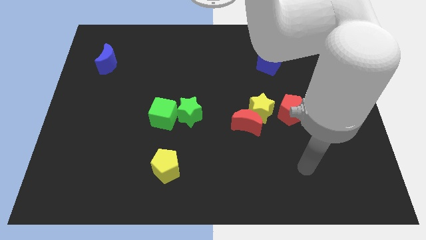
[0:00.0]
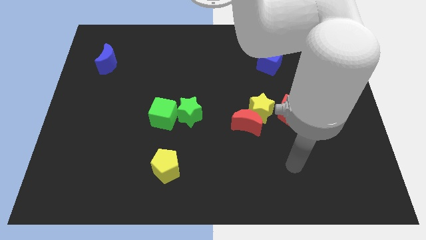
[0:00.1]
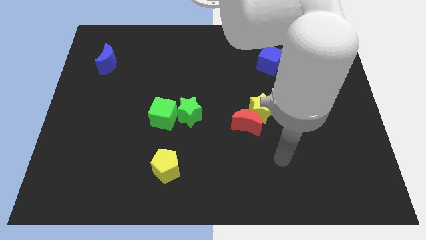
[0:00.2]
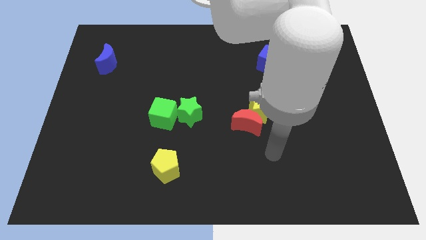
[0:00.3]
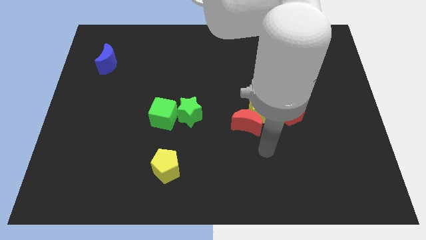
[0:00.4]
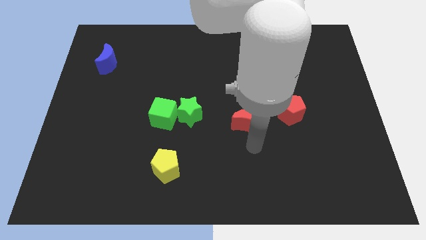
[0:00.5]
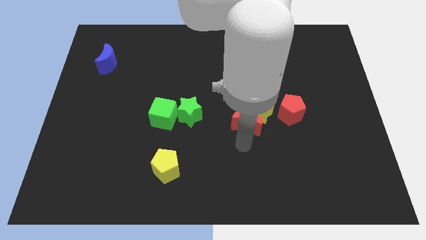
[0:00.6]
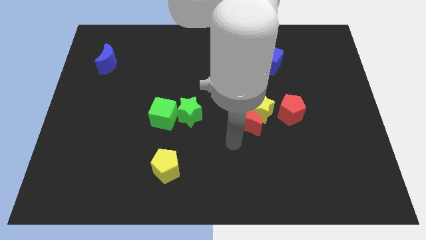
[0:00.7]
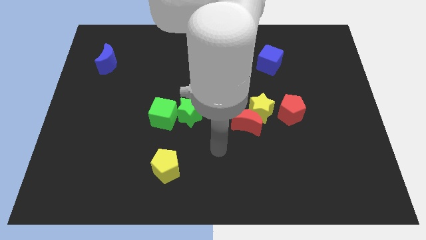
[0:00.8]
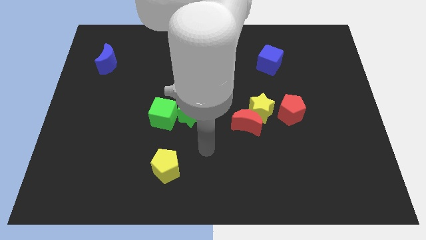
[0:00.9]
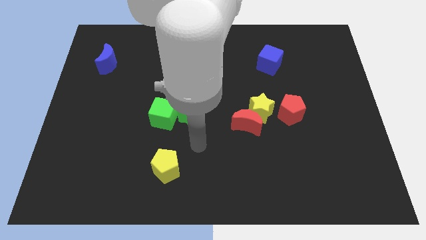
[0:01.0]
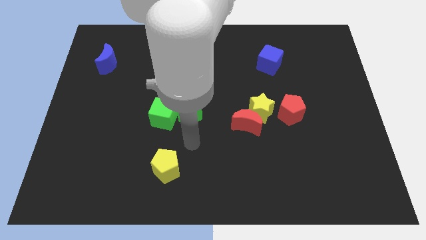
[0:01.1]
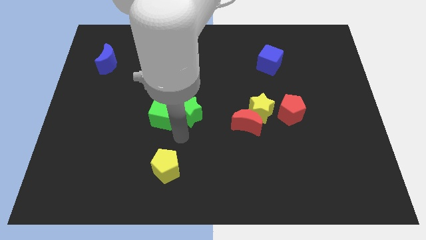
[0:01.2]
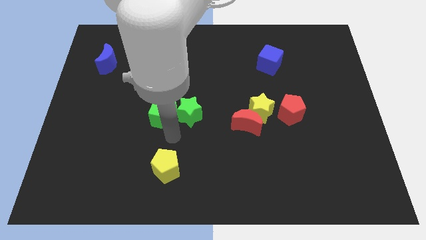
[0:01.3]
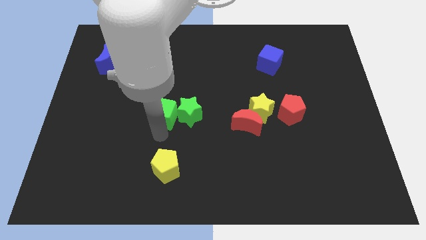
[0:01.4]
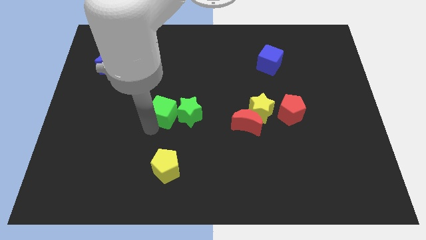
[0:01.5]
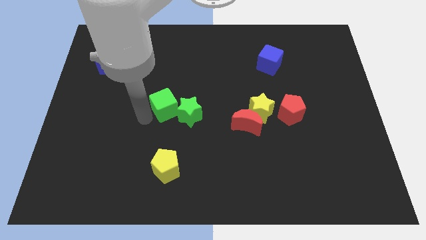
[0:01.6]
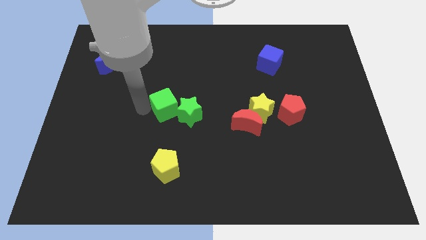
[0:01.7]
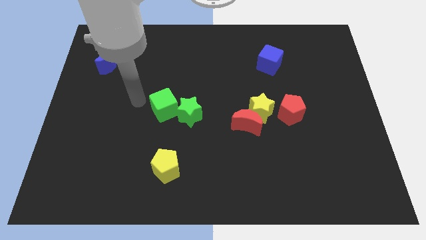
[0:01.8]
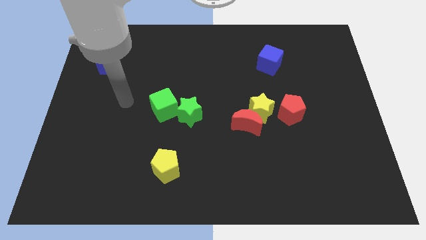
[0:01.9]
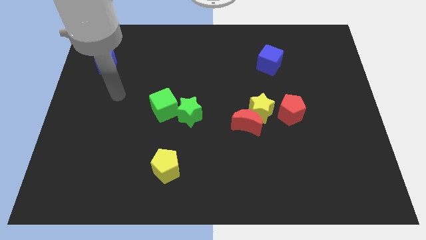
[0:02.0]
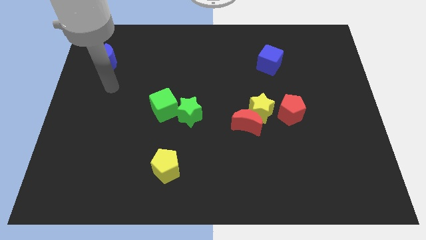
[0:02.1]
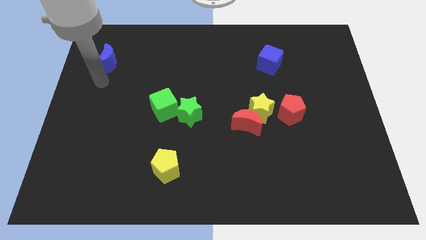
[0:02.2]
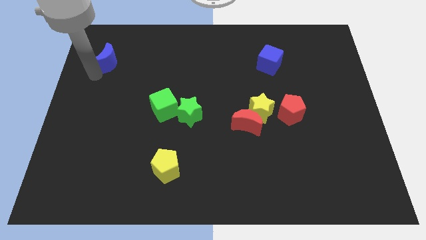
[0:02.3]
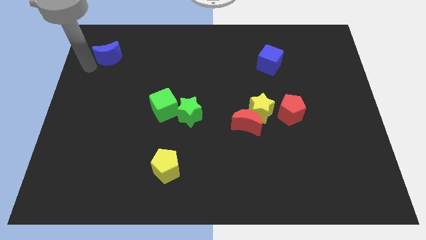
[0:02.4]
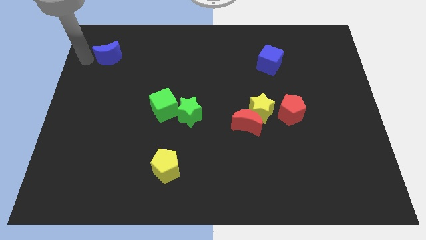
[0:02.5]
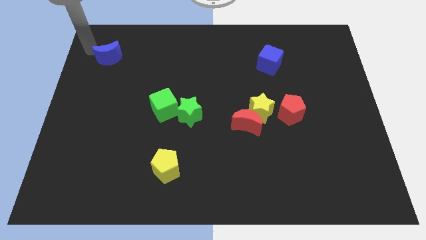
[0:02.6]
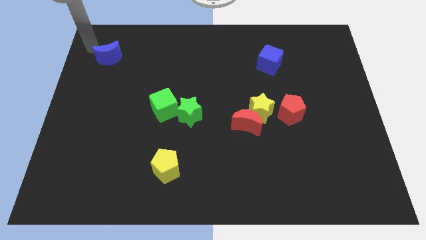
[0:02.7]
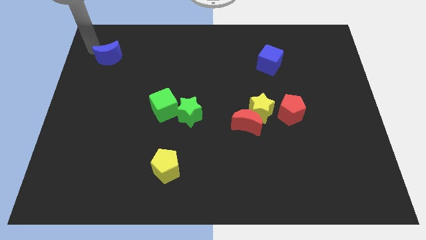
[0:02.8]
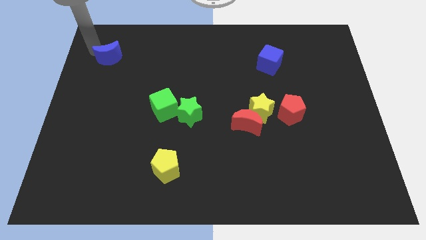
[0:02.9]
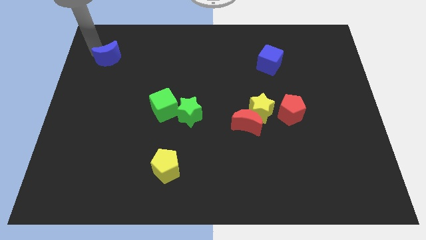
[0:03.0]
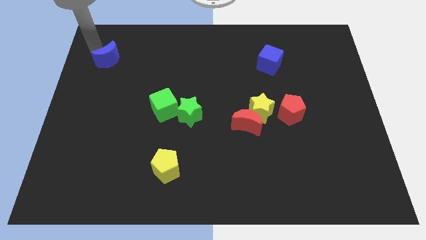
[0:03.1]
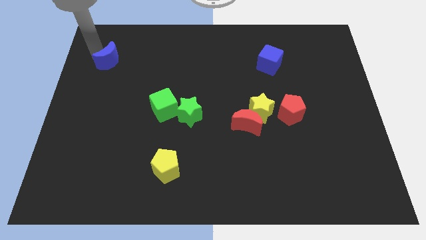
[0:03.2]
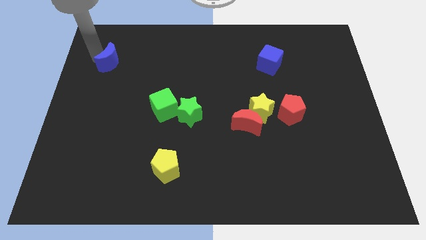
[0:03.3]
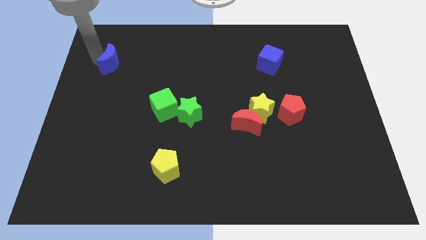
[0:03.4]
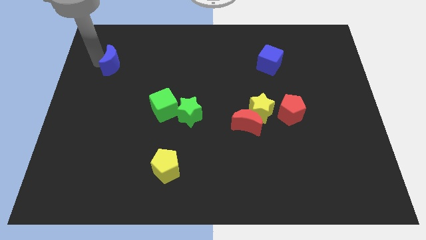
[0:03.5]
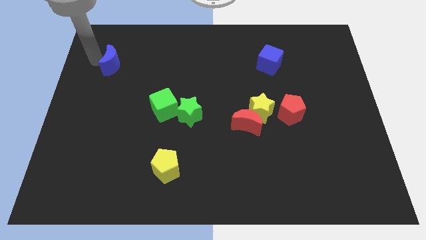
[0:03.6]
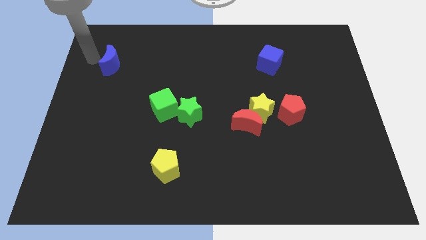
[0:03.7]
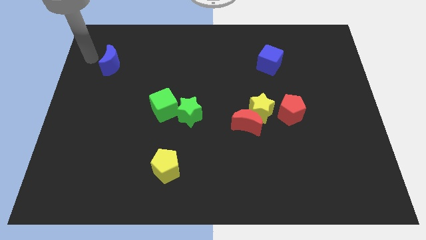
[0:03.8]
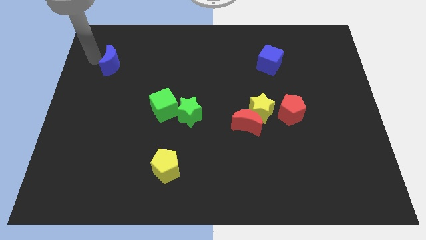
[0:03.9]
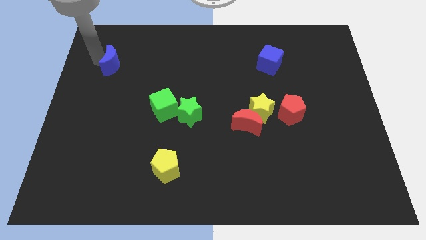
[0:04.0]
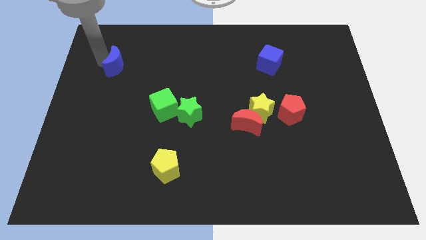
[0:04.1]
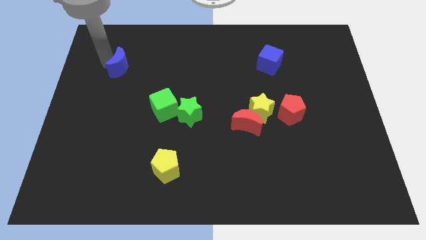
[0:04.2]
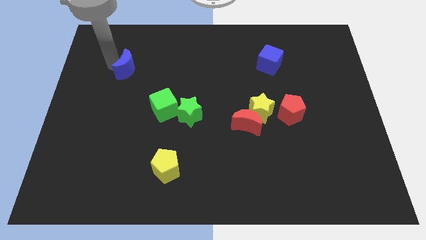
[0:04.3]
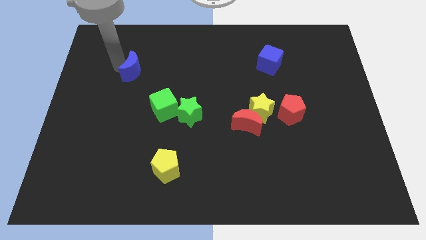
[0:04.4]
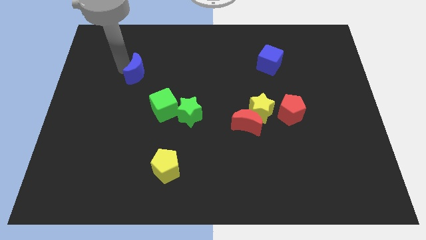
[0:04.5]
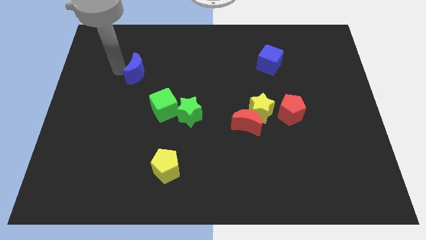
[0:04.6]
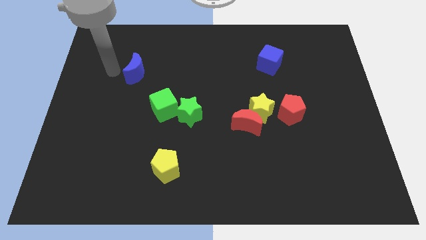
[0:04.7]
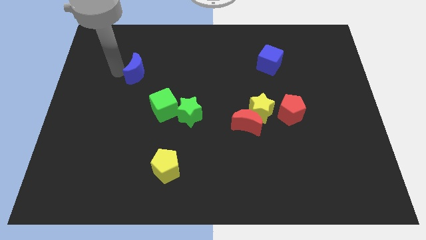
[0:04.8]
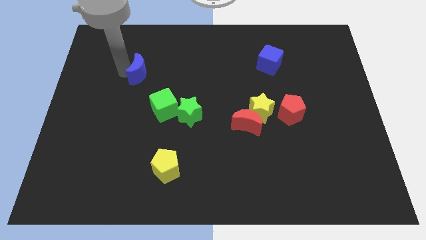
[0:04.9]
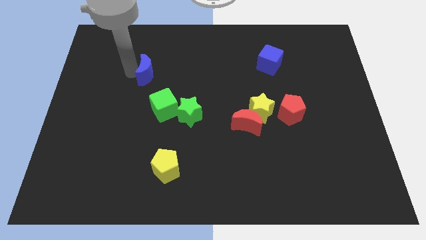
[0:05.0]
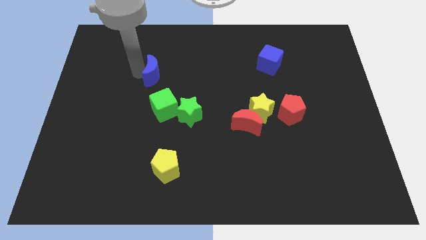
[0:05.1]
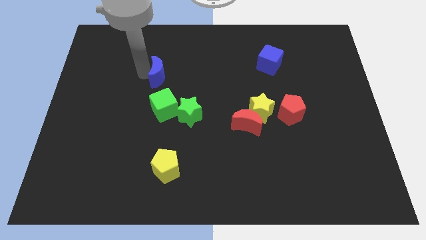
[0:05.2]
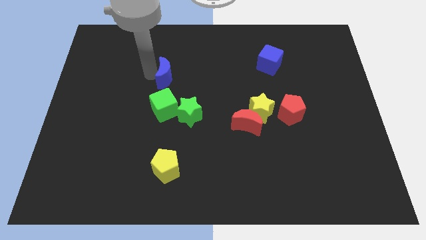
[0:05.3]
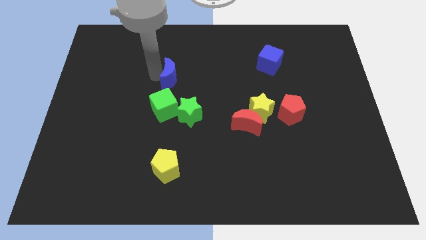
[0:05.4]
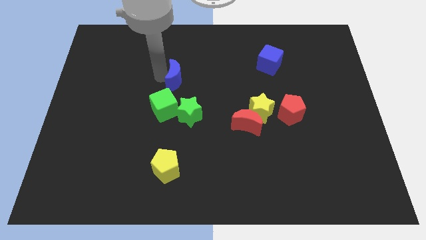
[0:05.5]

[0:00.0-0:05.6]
slide the blue moon to the middle
